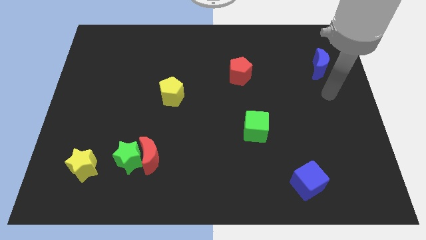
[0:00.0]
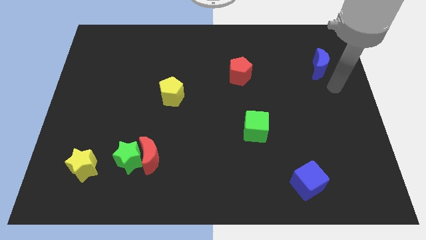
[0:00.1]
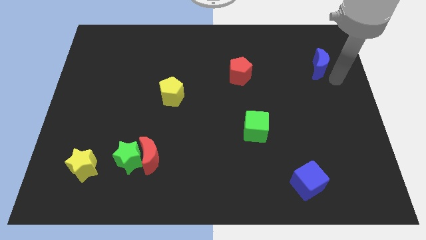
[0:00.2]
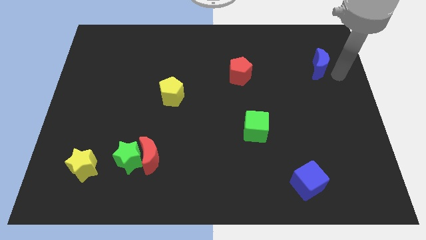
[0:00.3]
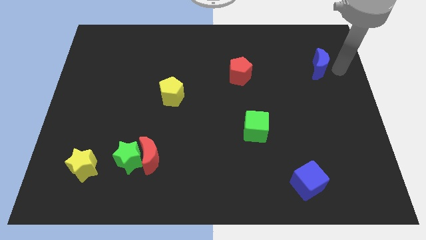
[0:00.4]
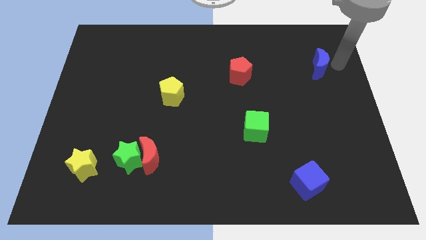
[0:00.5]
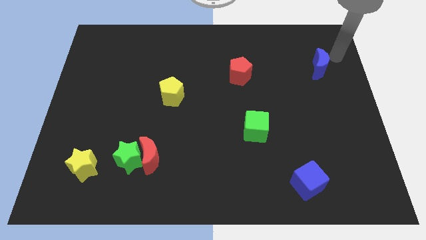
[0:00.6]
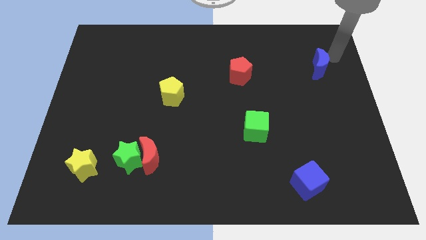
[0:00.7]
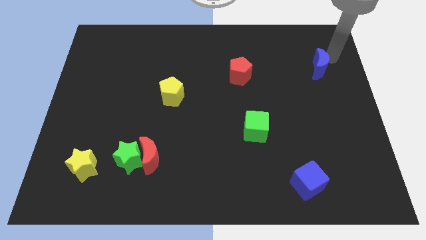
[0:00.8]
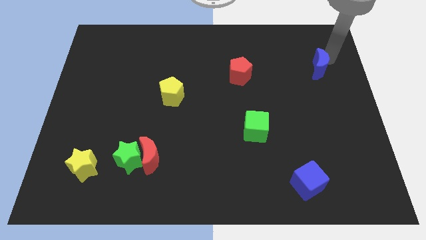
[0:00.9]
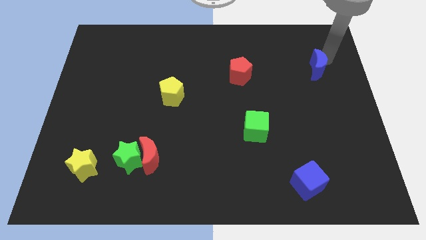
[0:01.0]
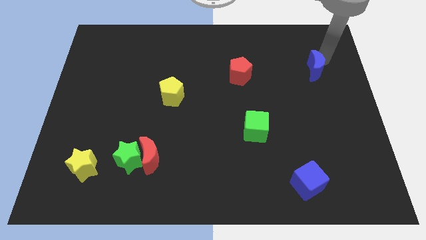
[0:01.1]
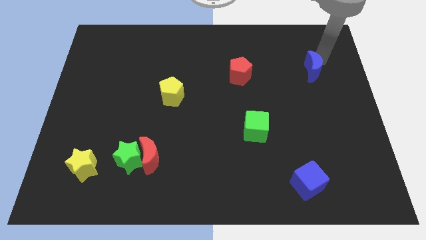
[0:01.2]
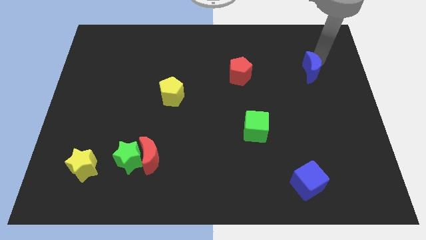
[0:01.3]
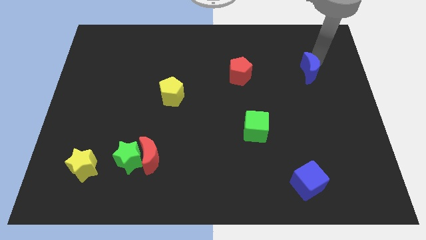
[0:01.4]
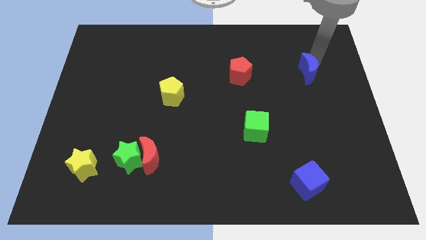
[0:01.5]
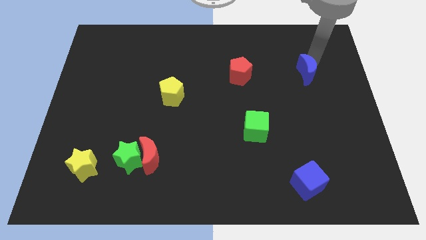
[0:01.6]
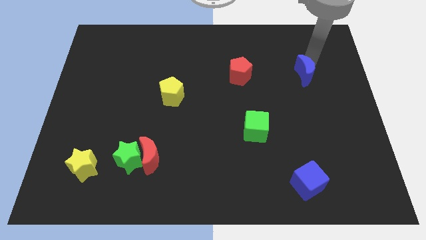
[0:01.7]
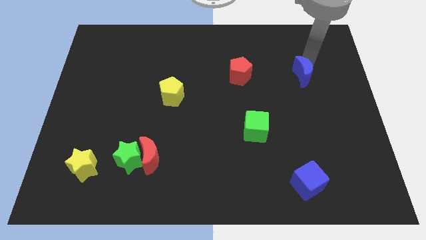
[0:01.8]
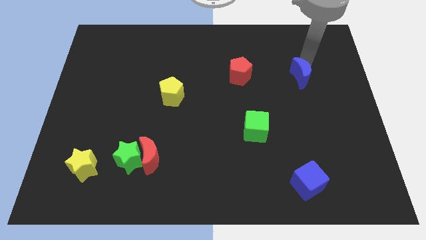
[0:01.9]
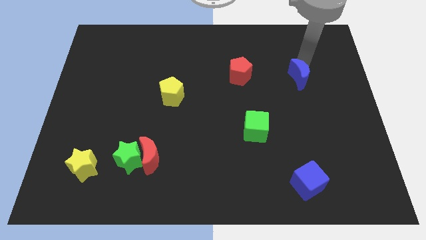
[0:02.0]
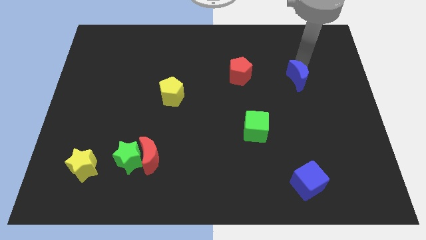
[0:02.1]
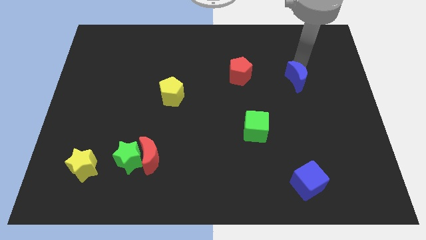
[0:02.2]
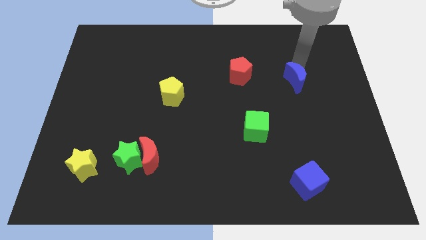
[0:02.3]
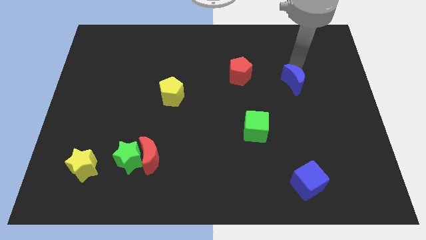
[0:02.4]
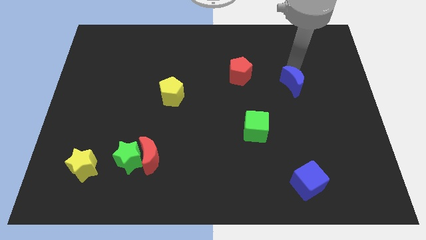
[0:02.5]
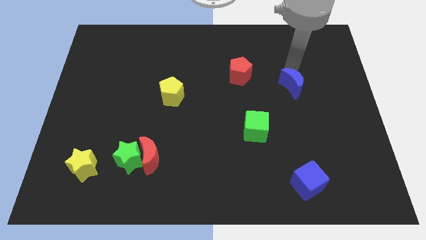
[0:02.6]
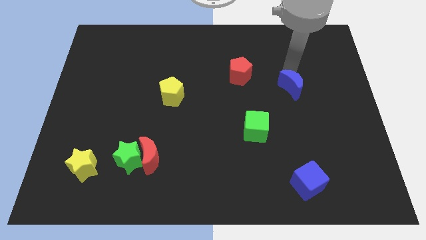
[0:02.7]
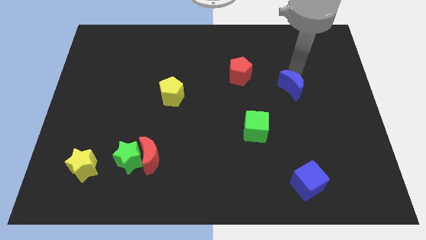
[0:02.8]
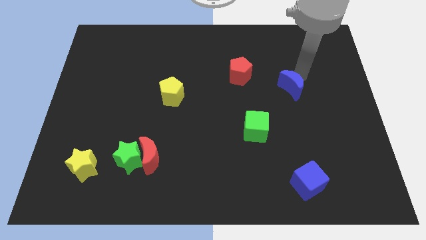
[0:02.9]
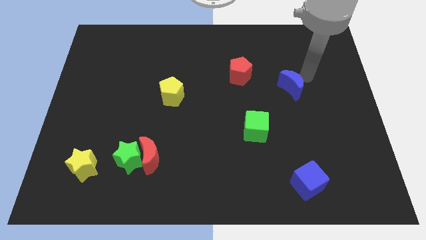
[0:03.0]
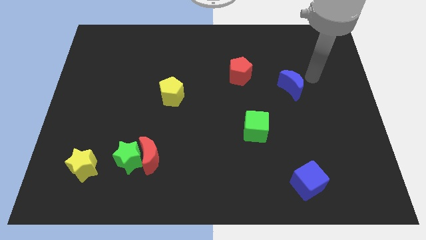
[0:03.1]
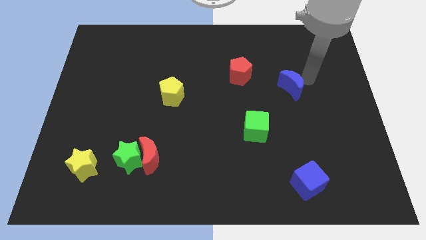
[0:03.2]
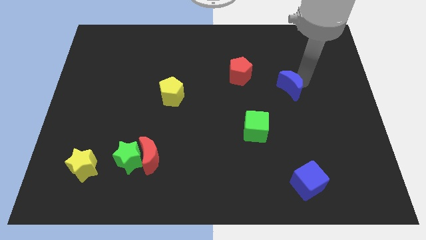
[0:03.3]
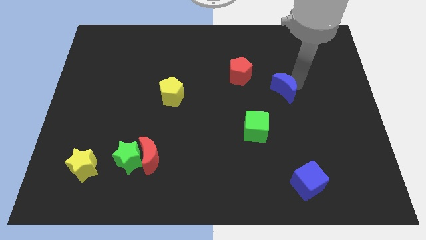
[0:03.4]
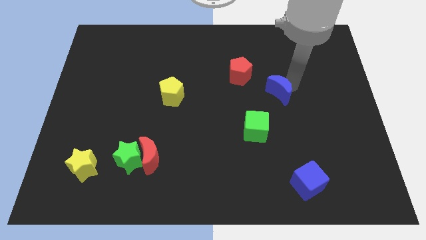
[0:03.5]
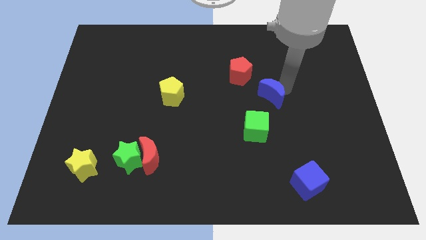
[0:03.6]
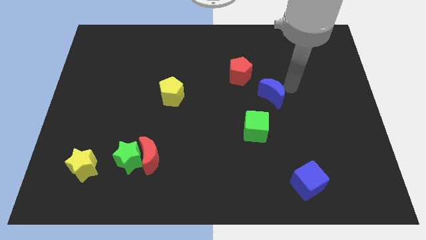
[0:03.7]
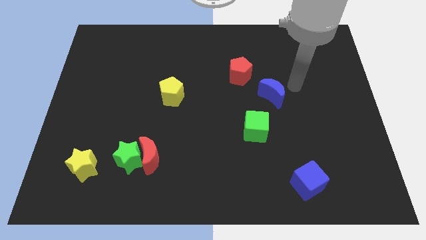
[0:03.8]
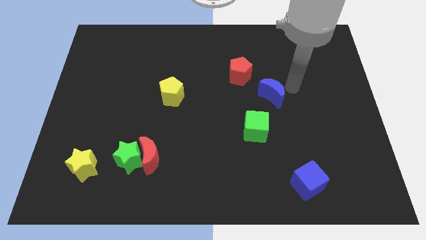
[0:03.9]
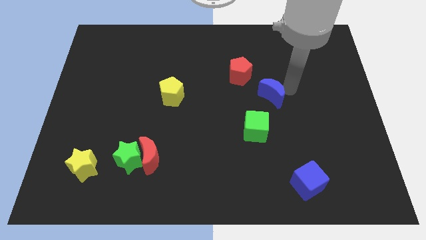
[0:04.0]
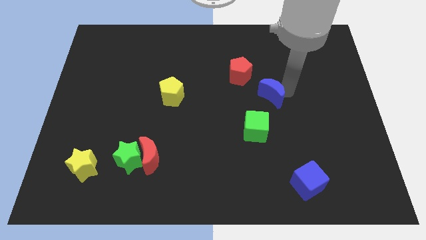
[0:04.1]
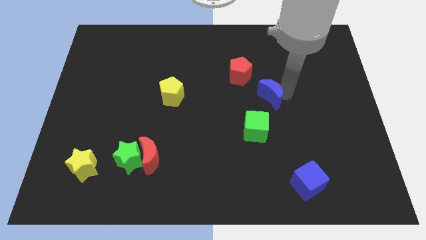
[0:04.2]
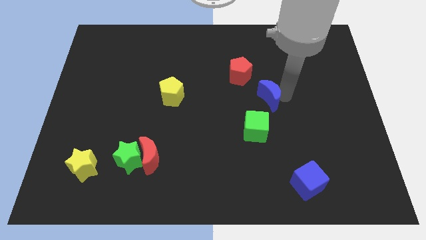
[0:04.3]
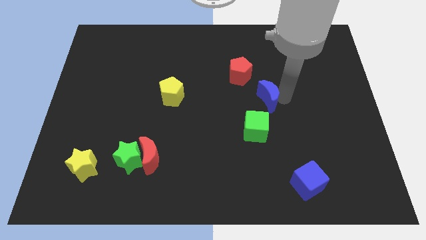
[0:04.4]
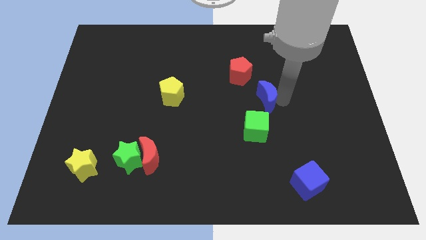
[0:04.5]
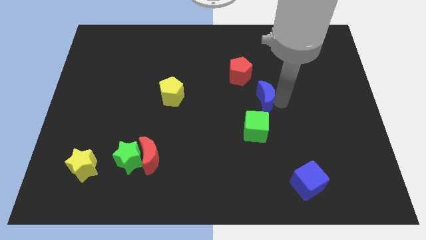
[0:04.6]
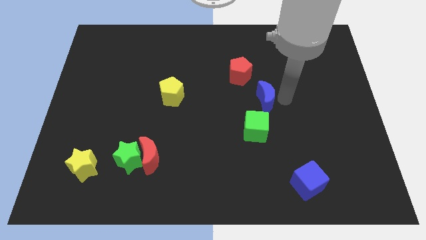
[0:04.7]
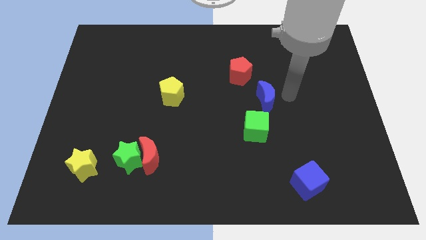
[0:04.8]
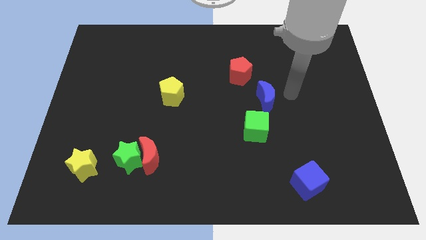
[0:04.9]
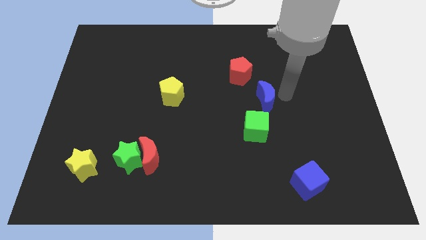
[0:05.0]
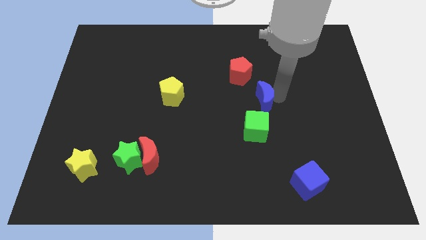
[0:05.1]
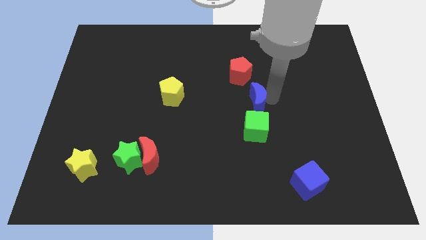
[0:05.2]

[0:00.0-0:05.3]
move the blue moon to the bottom side of the red pentagon

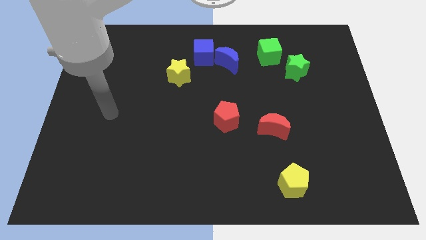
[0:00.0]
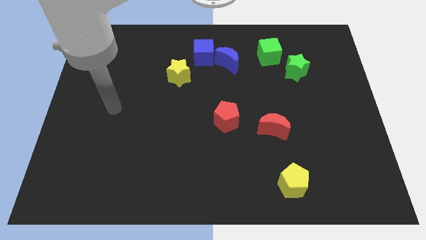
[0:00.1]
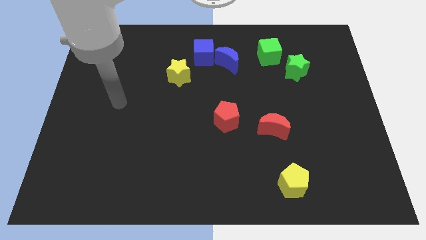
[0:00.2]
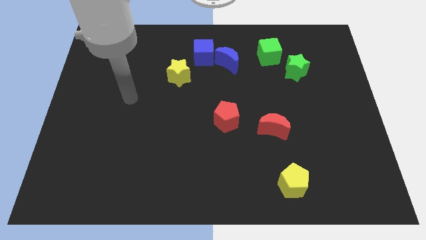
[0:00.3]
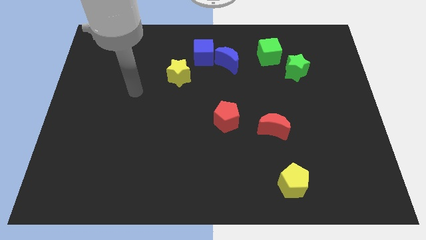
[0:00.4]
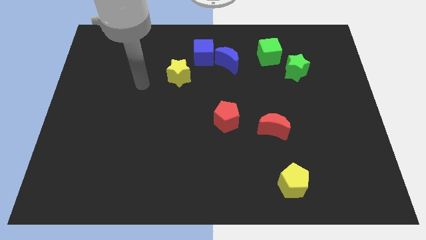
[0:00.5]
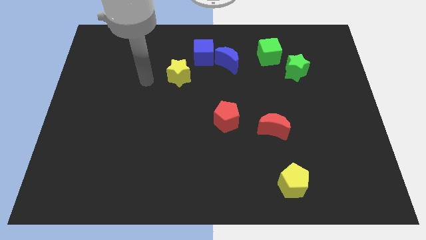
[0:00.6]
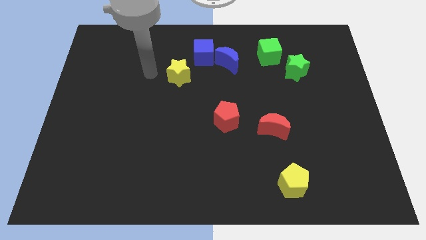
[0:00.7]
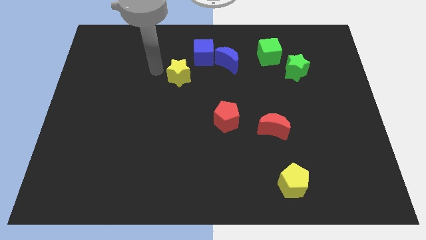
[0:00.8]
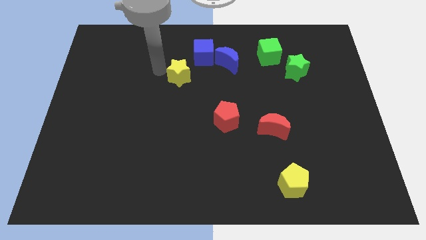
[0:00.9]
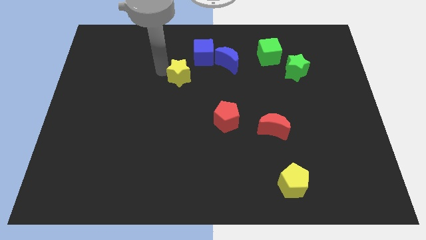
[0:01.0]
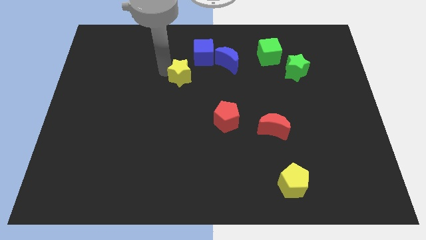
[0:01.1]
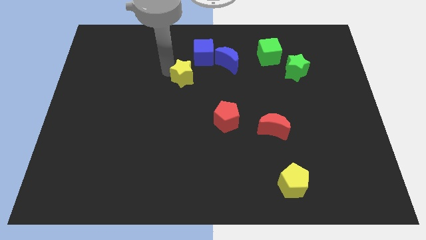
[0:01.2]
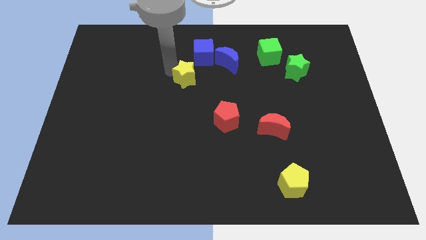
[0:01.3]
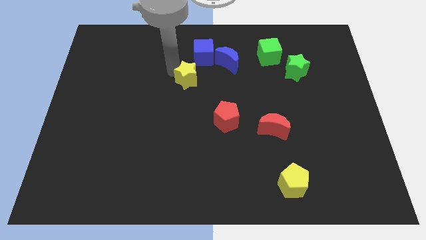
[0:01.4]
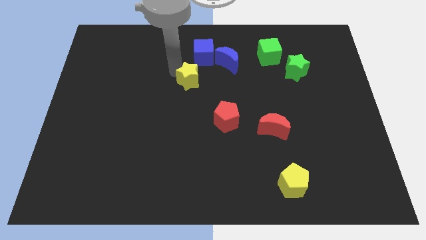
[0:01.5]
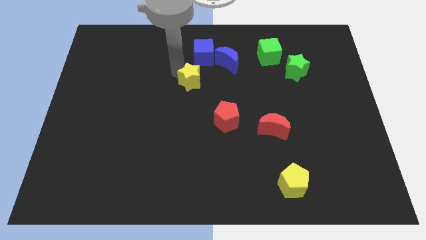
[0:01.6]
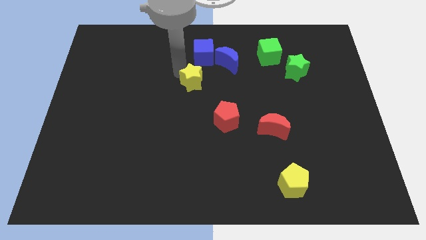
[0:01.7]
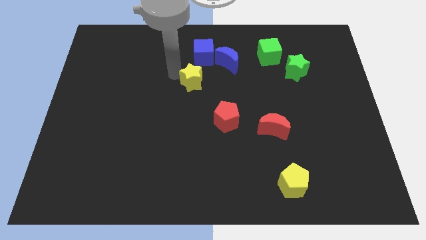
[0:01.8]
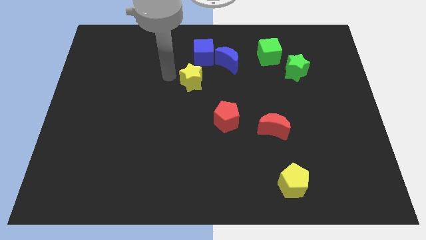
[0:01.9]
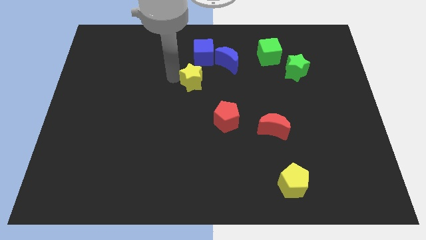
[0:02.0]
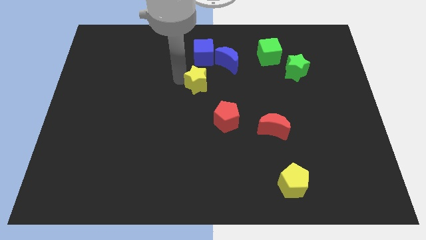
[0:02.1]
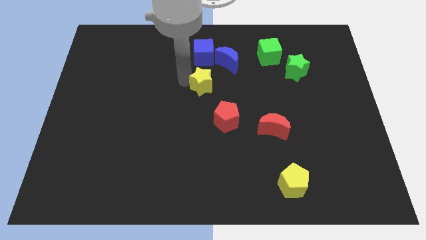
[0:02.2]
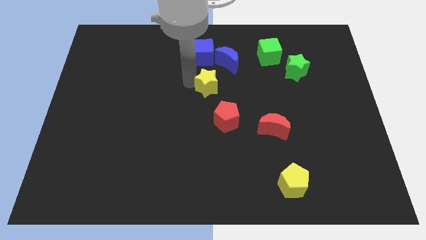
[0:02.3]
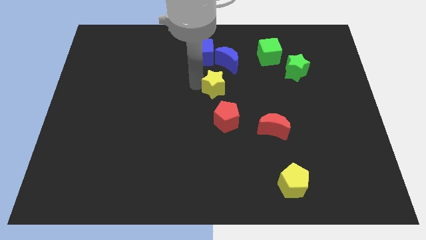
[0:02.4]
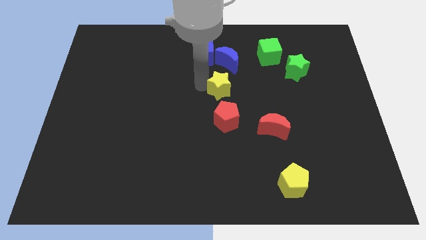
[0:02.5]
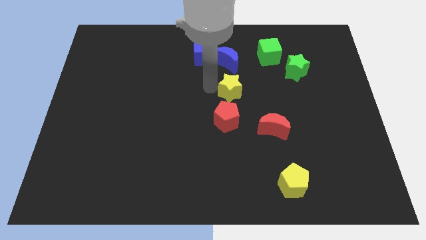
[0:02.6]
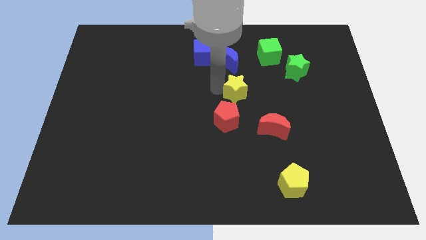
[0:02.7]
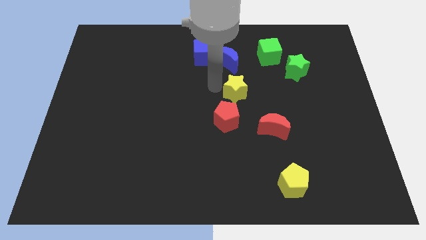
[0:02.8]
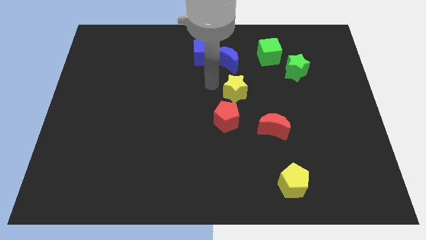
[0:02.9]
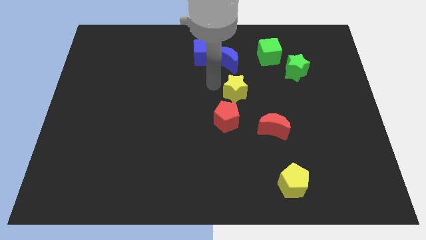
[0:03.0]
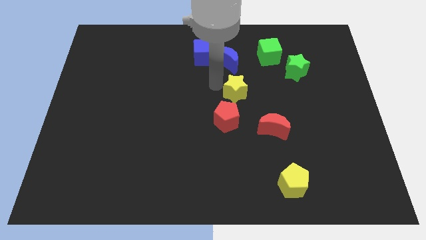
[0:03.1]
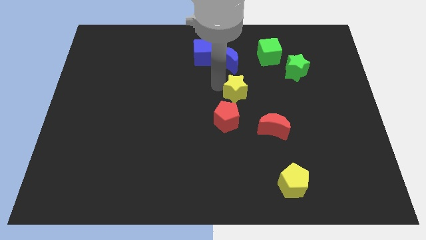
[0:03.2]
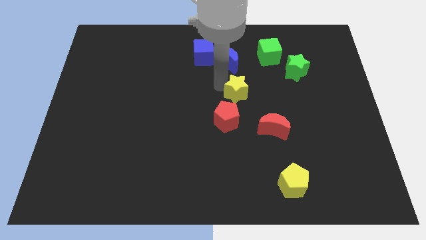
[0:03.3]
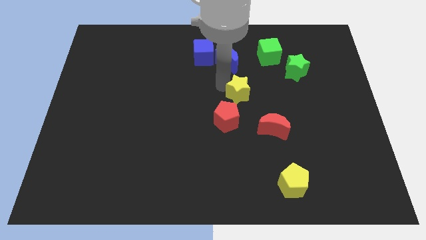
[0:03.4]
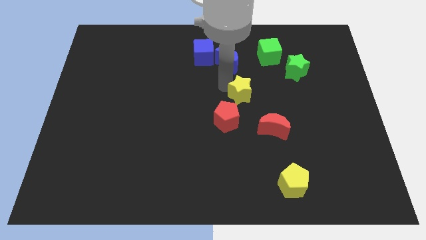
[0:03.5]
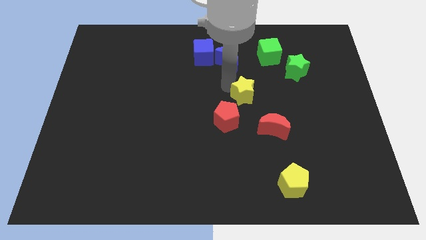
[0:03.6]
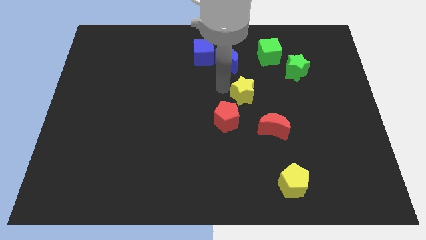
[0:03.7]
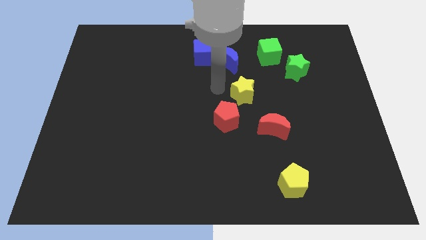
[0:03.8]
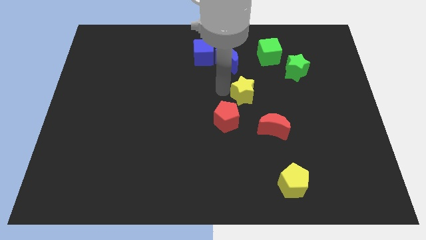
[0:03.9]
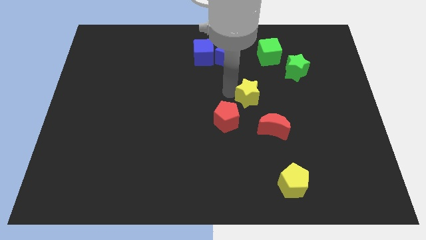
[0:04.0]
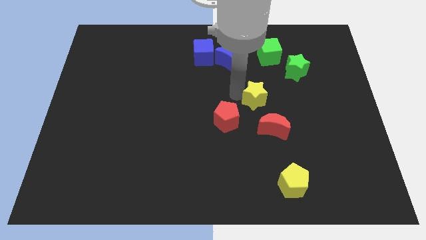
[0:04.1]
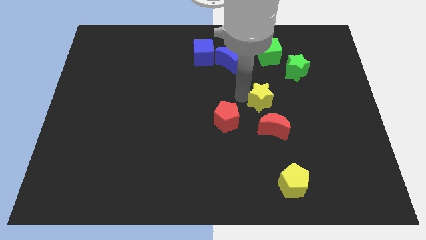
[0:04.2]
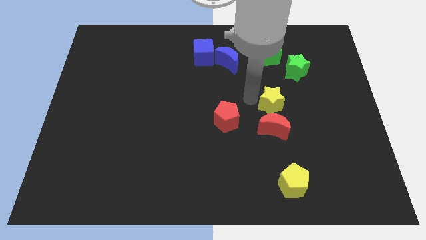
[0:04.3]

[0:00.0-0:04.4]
slide the yellow star diagonally up and to the right of the red moon
